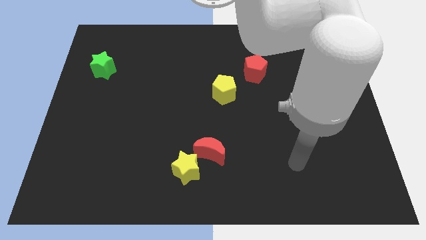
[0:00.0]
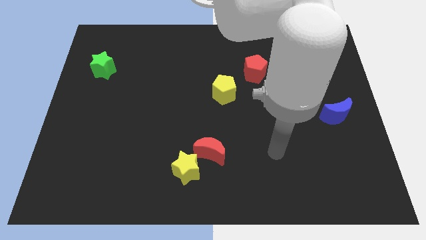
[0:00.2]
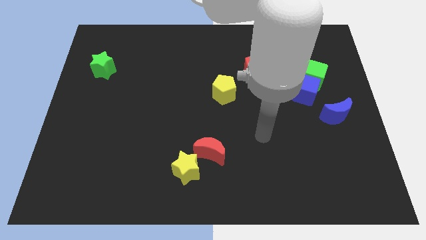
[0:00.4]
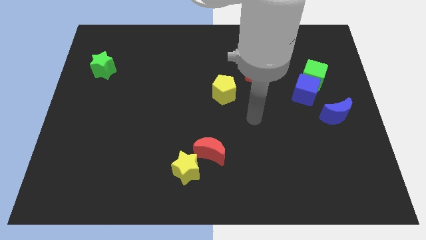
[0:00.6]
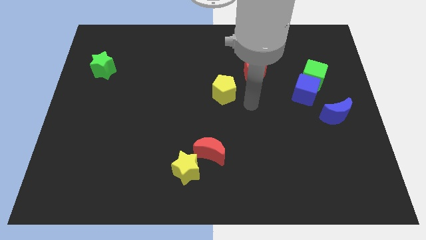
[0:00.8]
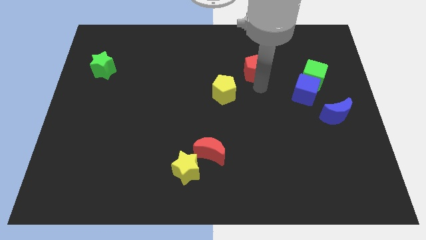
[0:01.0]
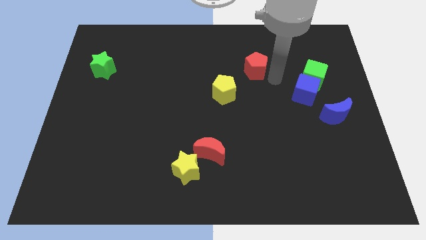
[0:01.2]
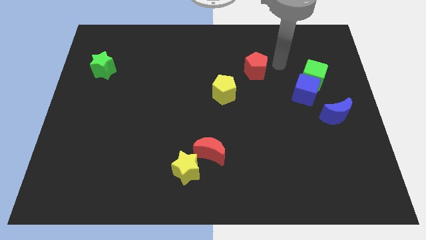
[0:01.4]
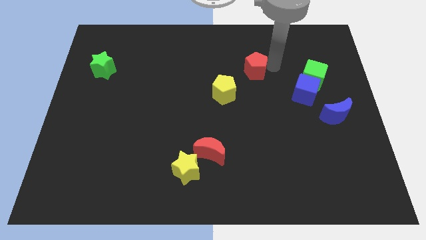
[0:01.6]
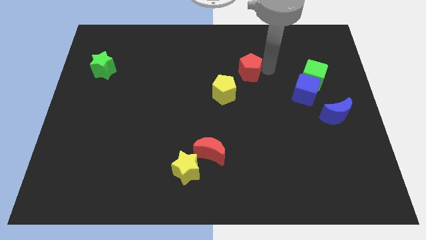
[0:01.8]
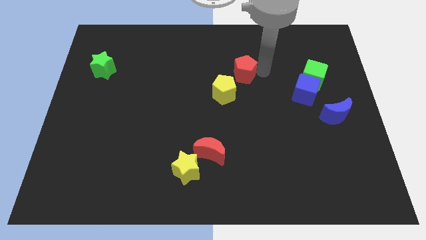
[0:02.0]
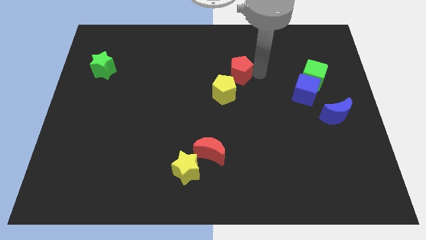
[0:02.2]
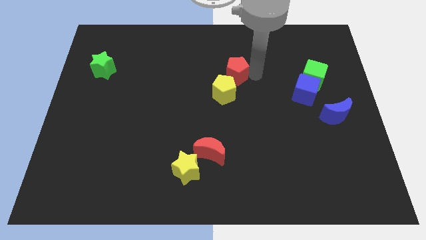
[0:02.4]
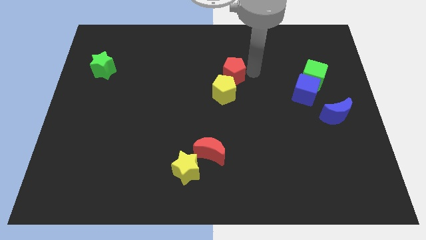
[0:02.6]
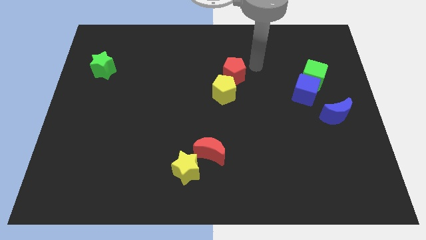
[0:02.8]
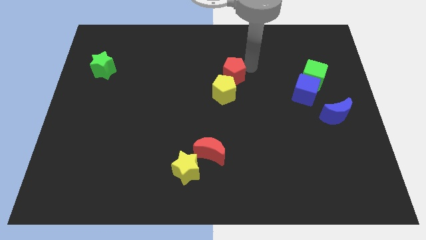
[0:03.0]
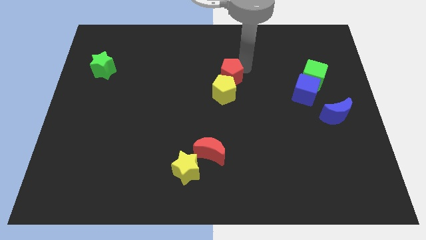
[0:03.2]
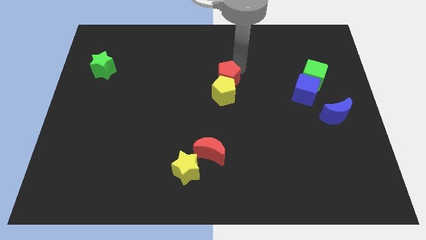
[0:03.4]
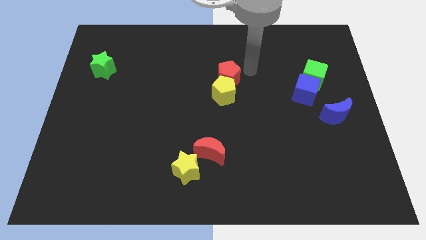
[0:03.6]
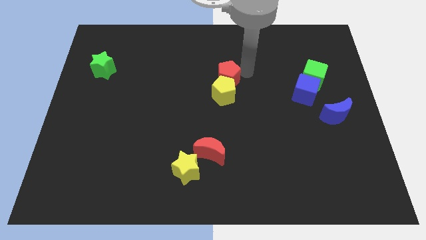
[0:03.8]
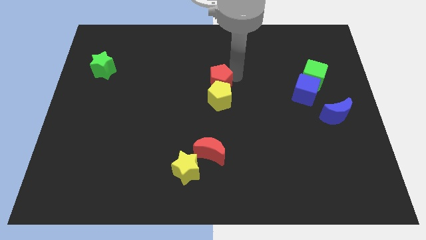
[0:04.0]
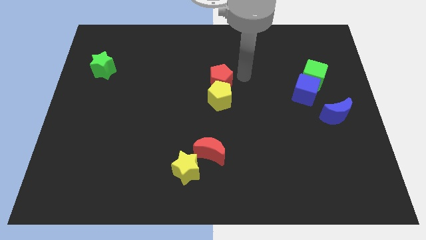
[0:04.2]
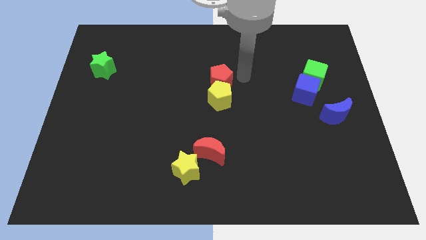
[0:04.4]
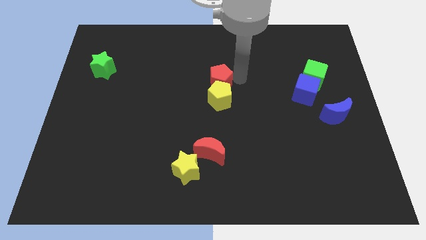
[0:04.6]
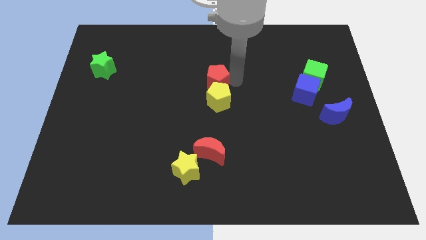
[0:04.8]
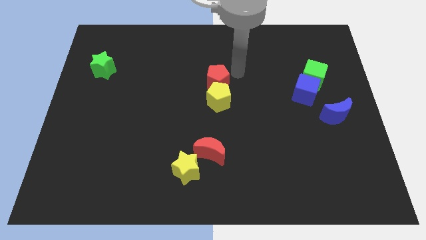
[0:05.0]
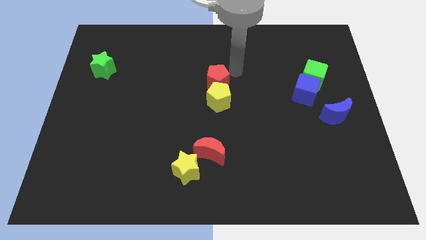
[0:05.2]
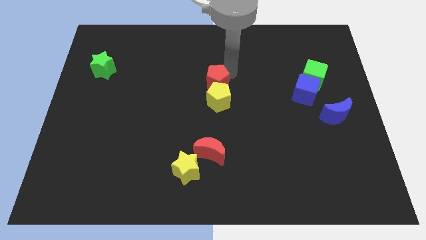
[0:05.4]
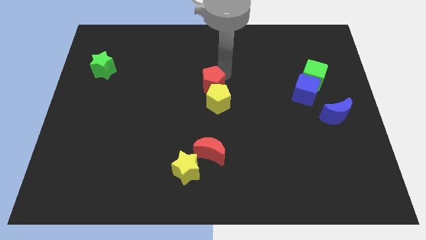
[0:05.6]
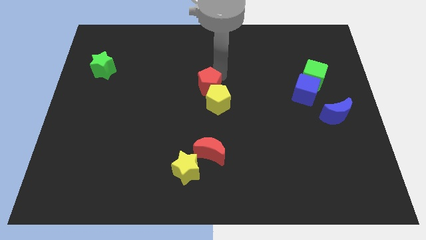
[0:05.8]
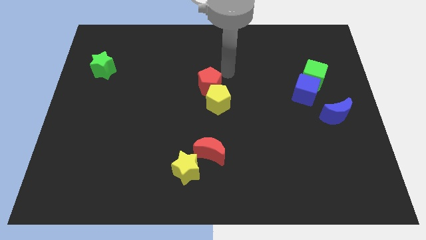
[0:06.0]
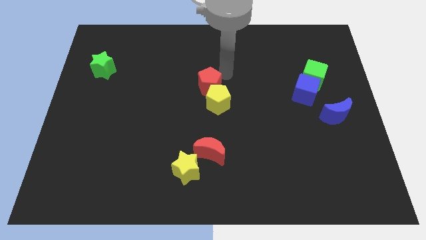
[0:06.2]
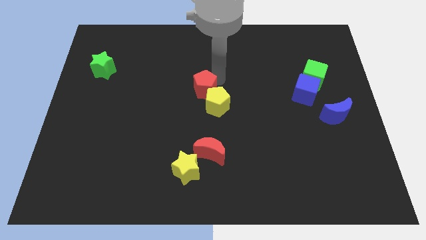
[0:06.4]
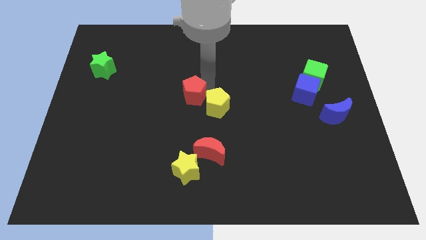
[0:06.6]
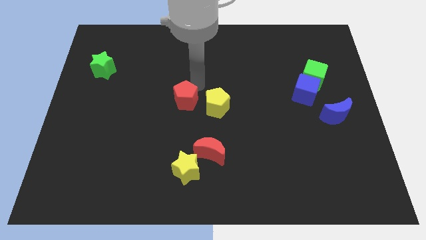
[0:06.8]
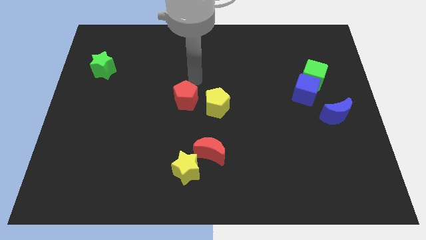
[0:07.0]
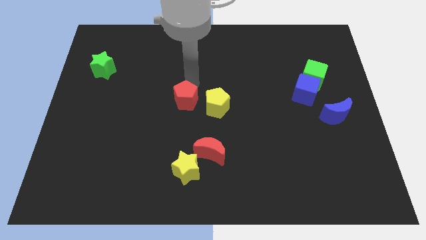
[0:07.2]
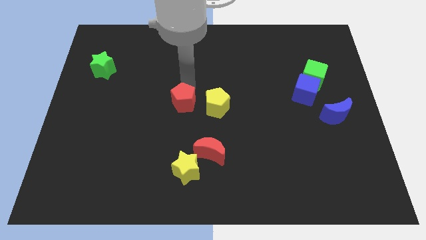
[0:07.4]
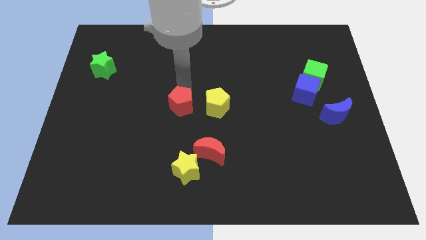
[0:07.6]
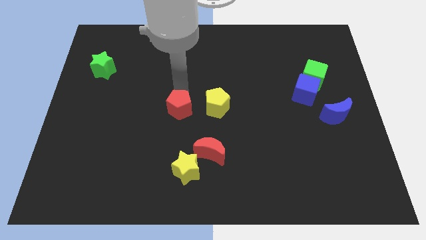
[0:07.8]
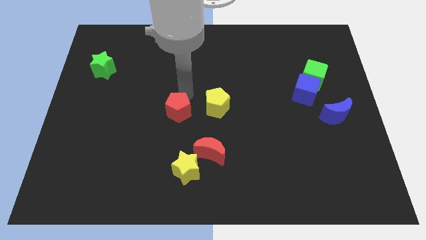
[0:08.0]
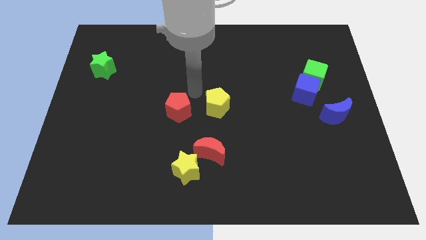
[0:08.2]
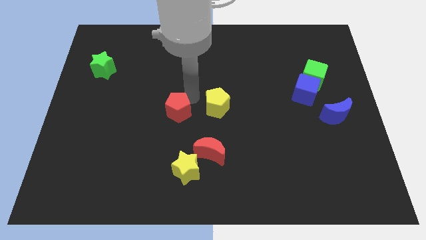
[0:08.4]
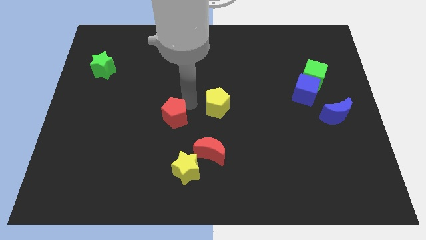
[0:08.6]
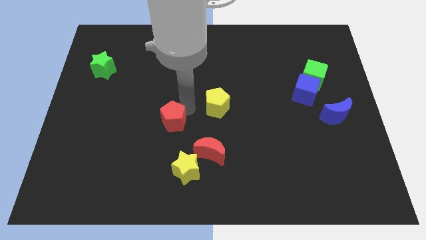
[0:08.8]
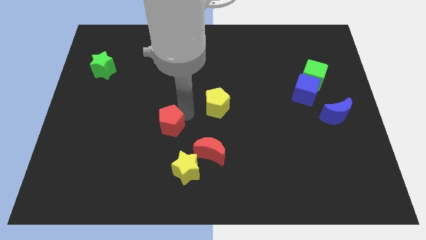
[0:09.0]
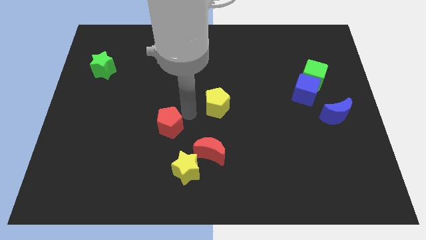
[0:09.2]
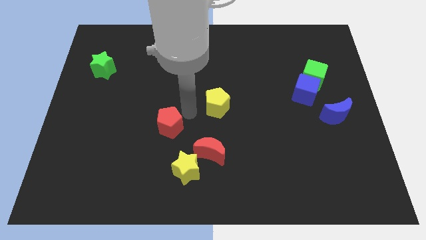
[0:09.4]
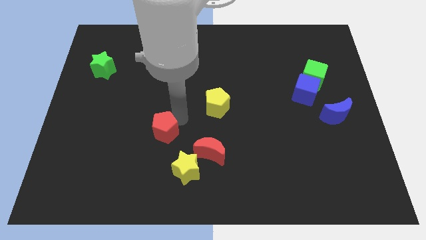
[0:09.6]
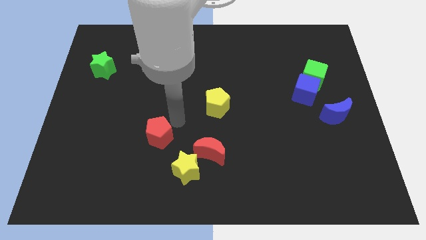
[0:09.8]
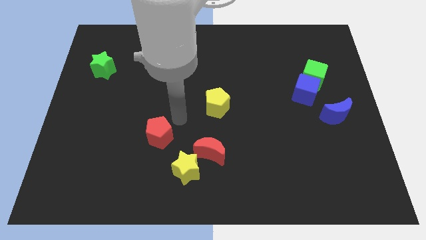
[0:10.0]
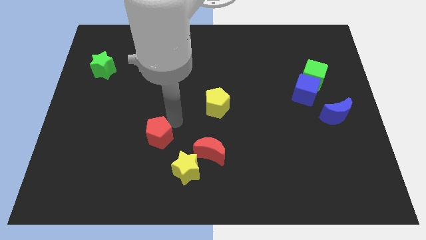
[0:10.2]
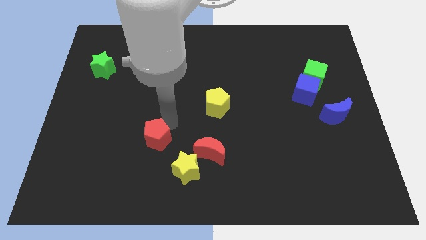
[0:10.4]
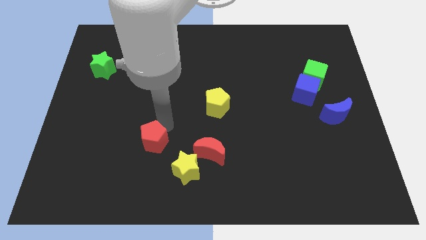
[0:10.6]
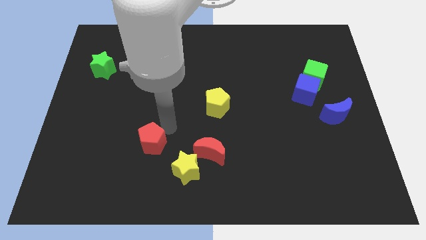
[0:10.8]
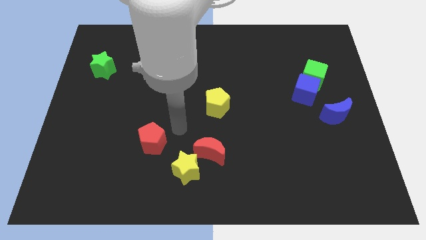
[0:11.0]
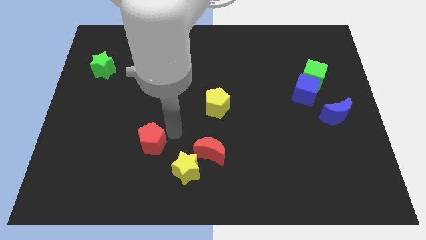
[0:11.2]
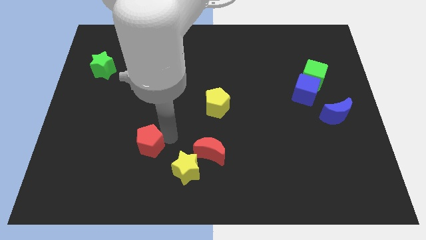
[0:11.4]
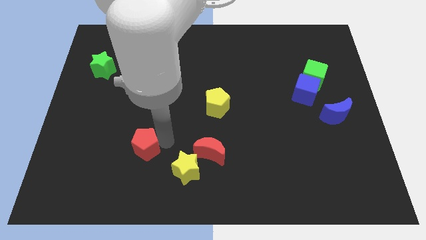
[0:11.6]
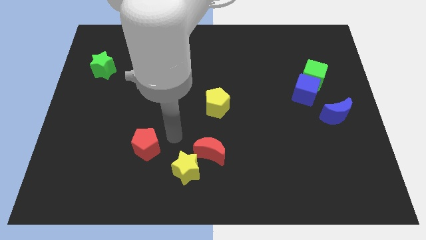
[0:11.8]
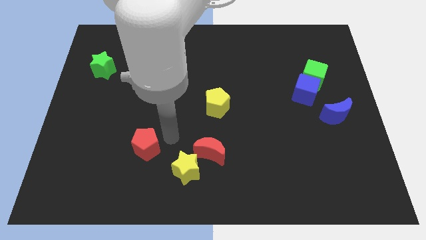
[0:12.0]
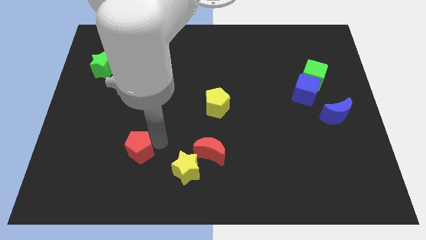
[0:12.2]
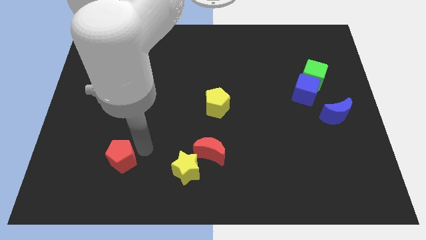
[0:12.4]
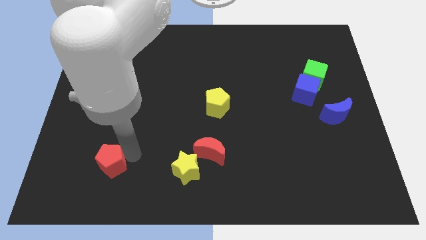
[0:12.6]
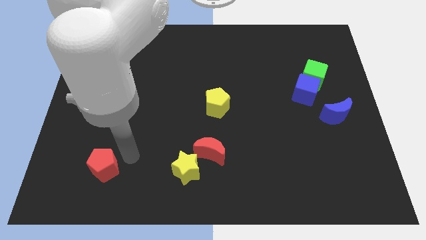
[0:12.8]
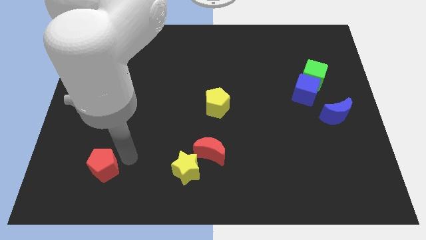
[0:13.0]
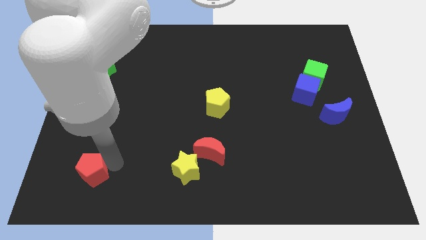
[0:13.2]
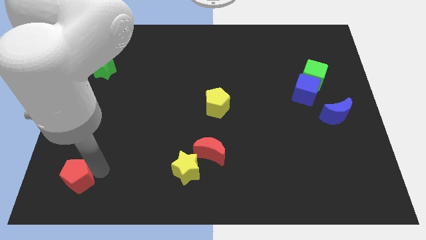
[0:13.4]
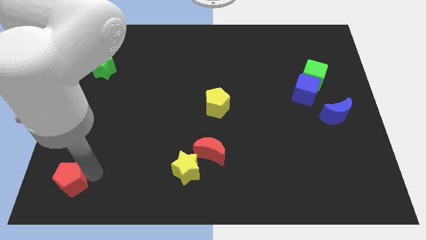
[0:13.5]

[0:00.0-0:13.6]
push the red pentagon to the bottom left

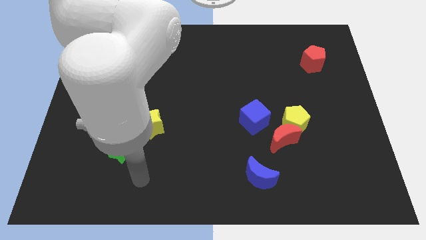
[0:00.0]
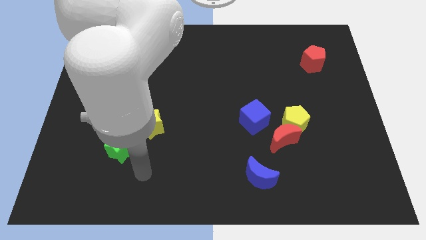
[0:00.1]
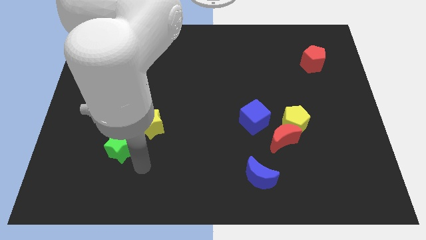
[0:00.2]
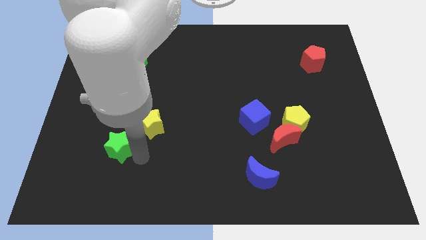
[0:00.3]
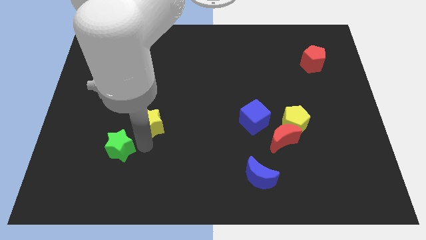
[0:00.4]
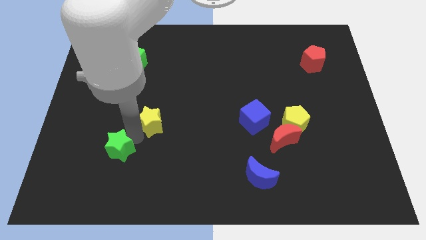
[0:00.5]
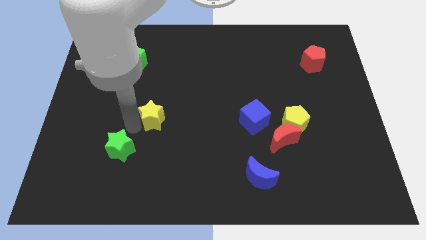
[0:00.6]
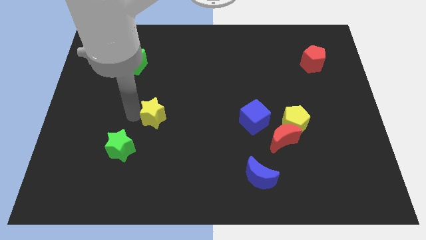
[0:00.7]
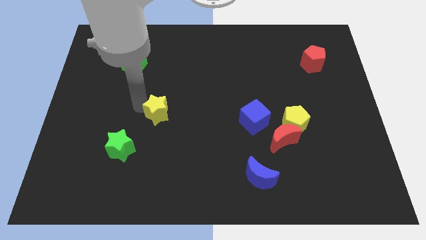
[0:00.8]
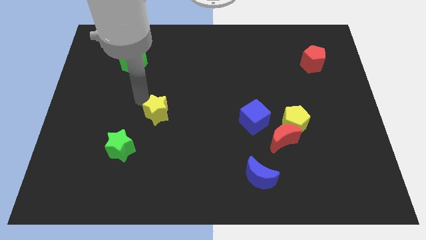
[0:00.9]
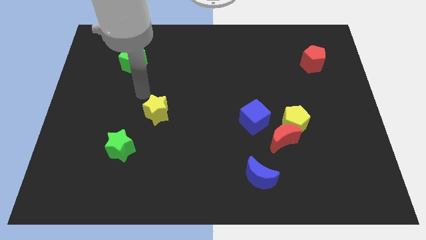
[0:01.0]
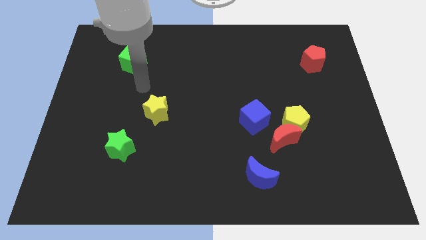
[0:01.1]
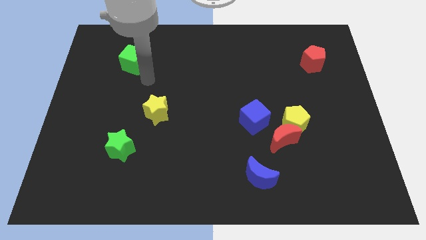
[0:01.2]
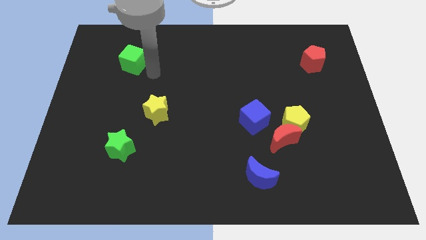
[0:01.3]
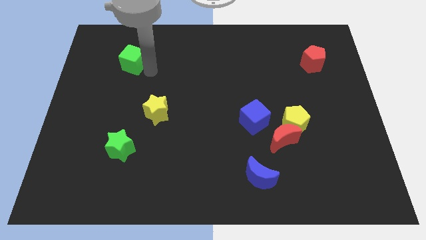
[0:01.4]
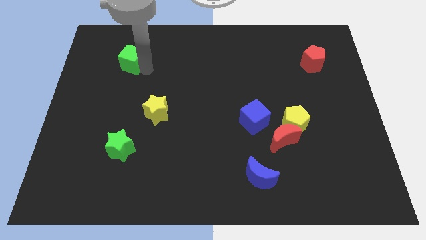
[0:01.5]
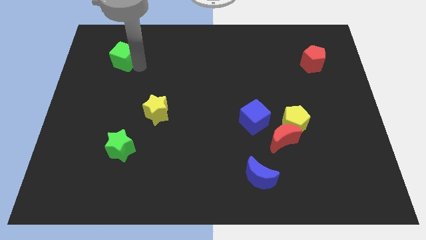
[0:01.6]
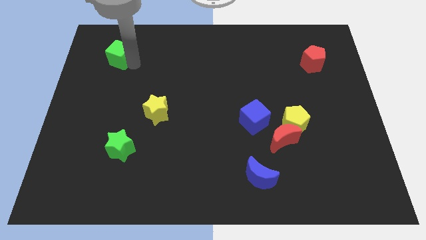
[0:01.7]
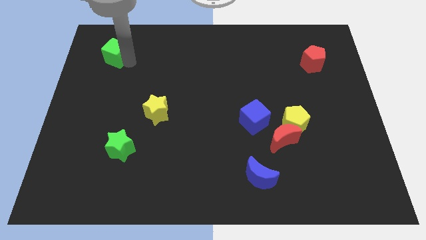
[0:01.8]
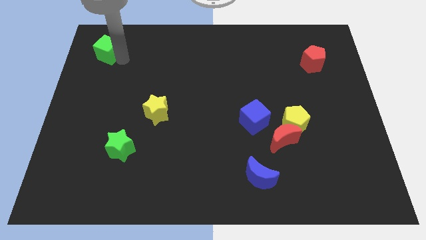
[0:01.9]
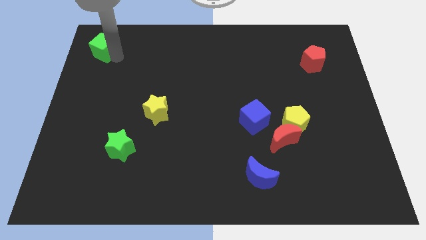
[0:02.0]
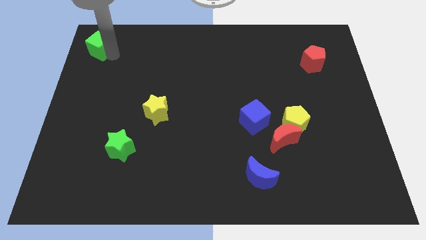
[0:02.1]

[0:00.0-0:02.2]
slide the green cube to the top left of the board
